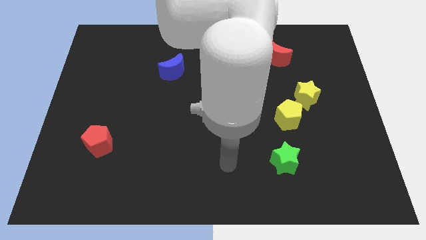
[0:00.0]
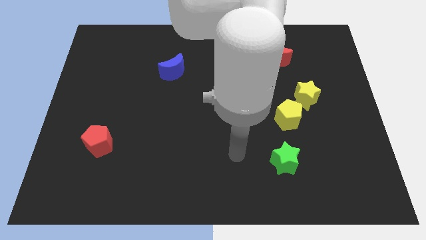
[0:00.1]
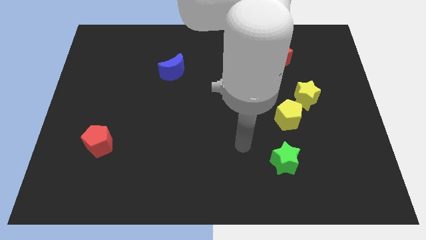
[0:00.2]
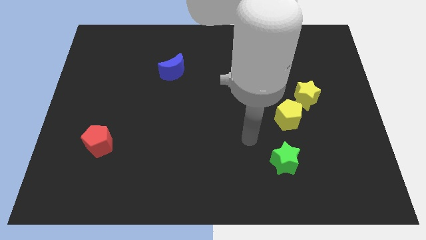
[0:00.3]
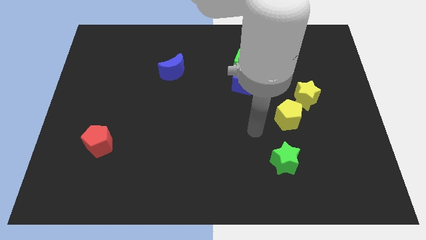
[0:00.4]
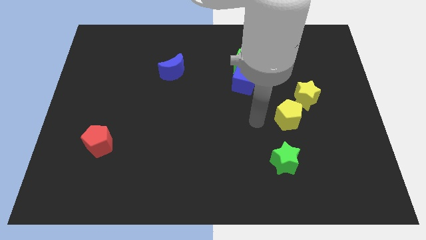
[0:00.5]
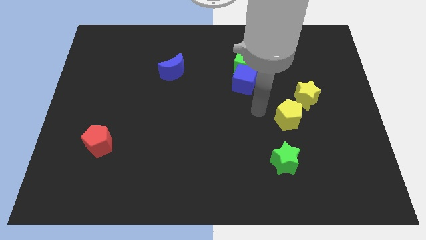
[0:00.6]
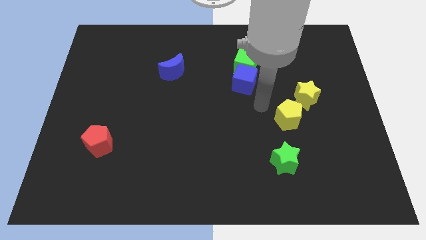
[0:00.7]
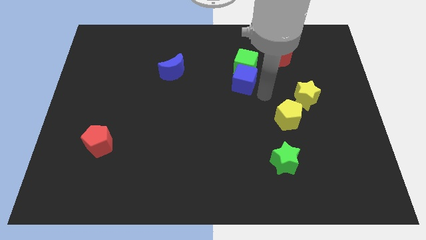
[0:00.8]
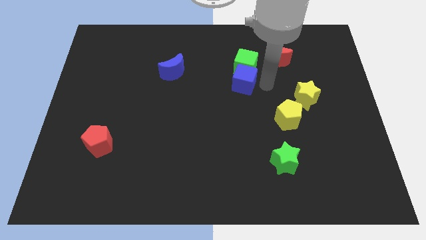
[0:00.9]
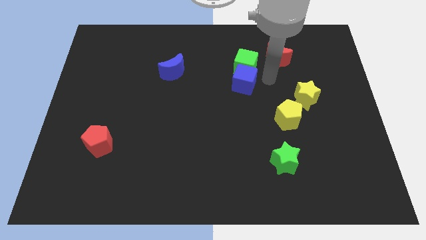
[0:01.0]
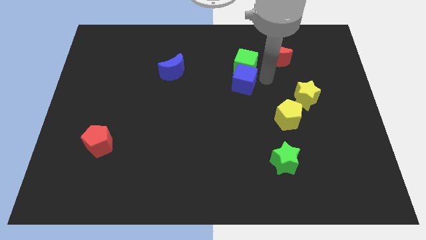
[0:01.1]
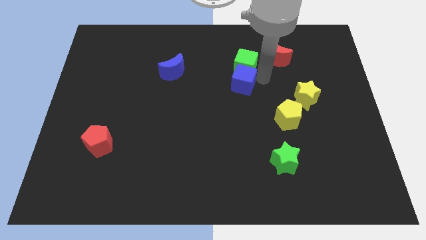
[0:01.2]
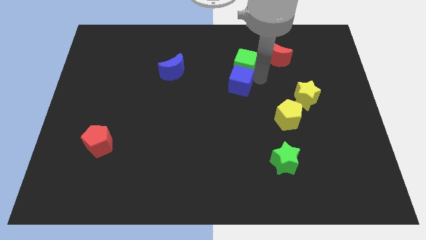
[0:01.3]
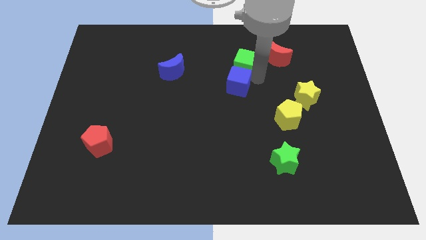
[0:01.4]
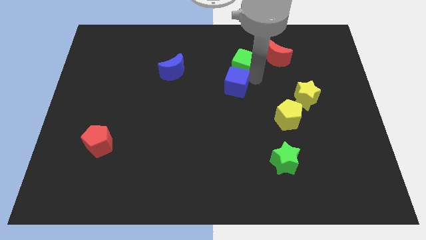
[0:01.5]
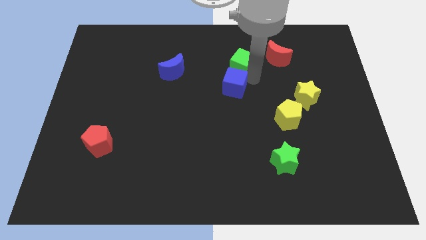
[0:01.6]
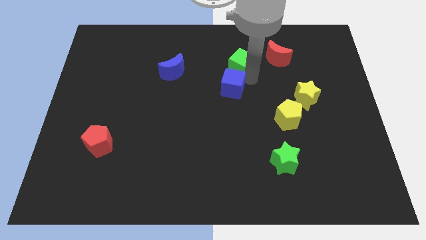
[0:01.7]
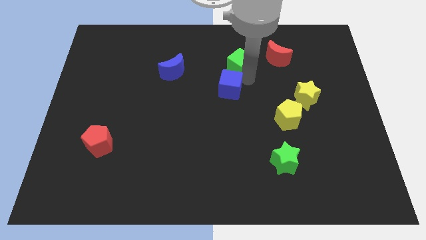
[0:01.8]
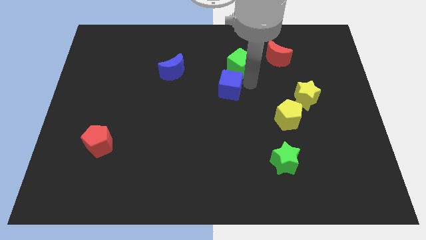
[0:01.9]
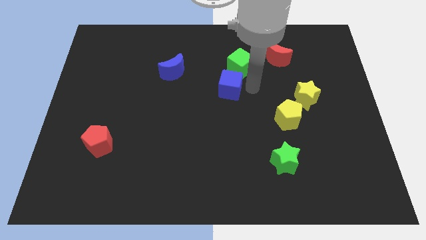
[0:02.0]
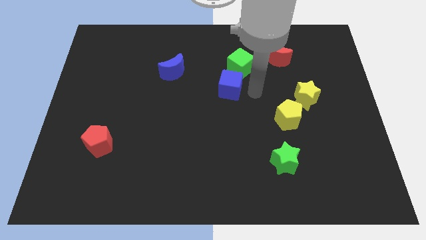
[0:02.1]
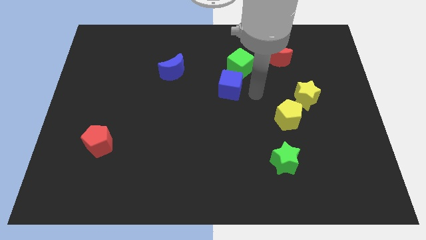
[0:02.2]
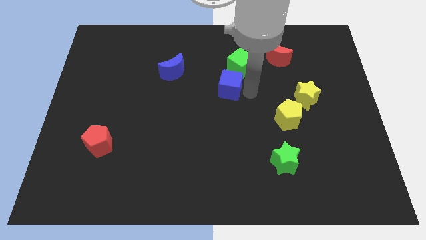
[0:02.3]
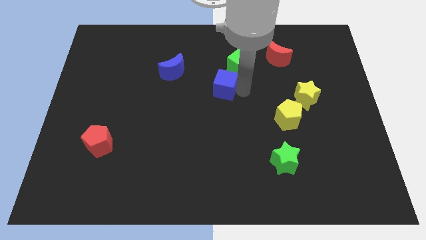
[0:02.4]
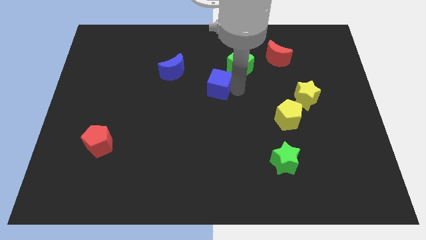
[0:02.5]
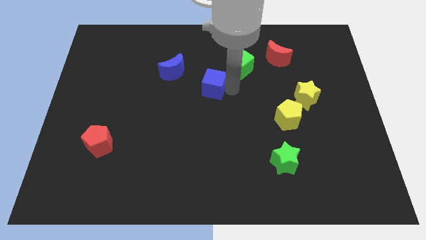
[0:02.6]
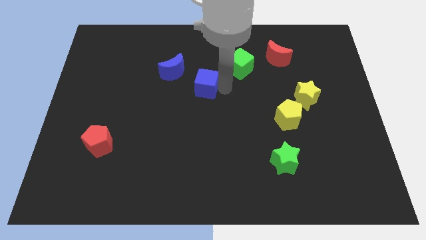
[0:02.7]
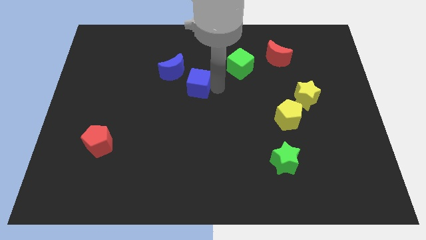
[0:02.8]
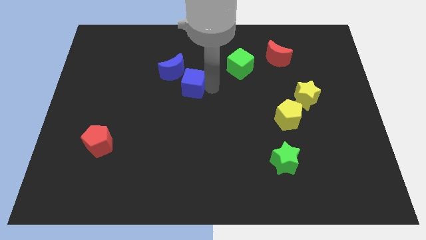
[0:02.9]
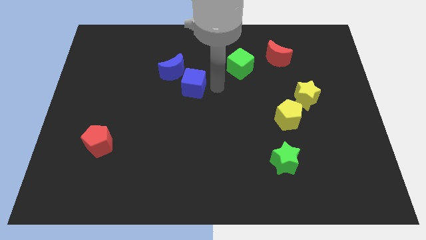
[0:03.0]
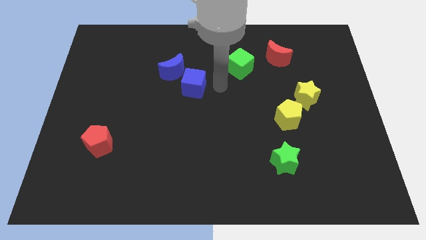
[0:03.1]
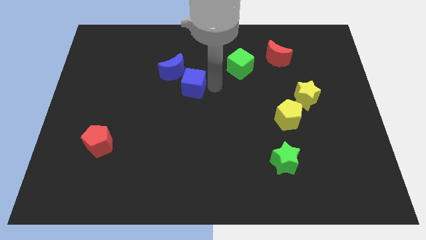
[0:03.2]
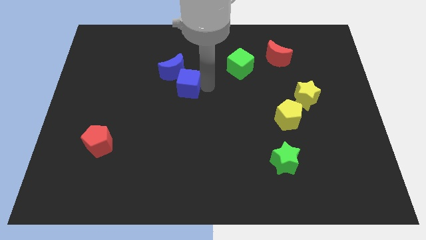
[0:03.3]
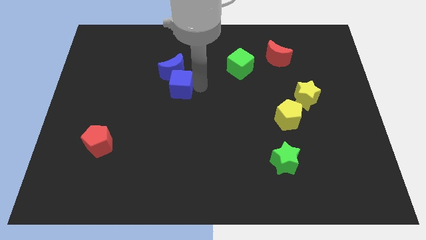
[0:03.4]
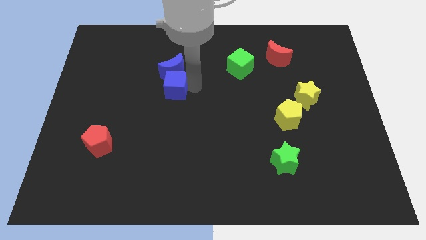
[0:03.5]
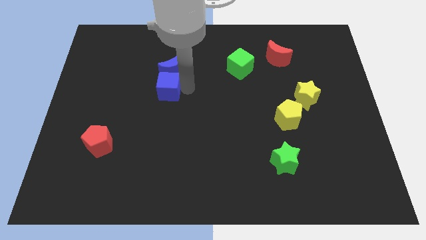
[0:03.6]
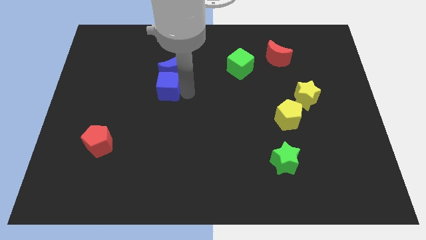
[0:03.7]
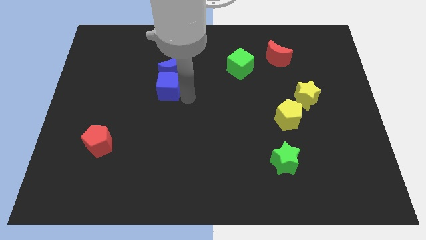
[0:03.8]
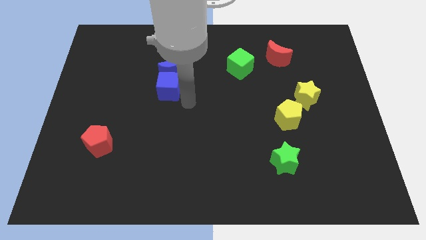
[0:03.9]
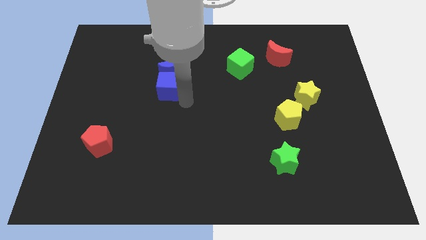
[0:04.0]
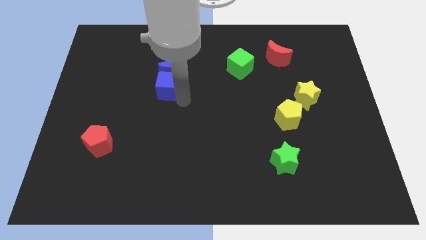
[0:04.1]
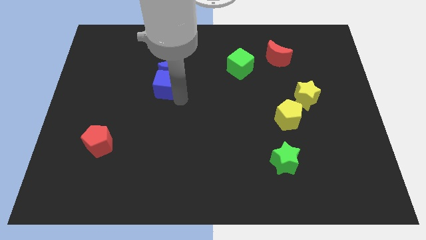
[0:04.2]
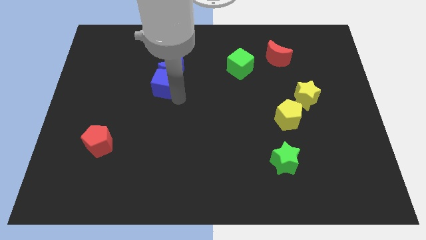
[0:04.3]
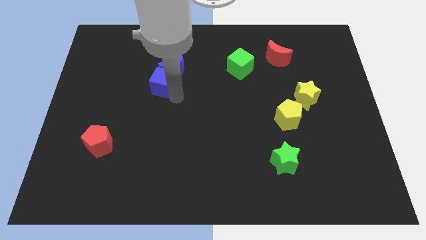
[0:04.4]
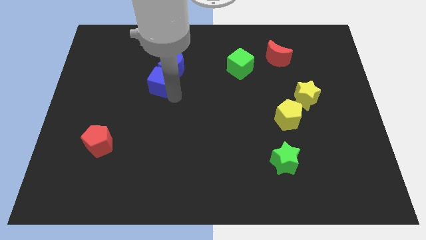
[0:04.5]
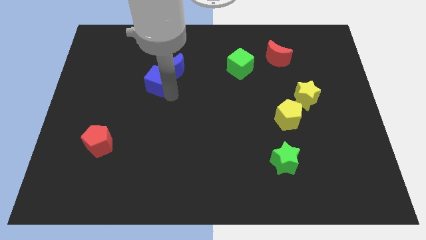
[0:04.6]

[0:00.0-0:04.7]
push the blue cube to the left of the blue moon

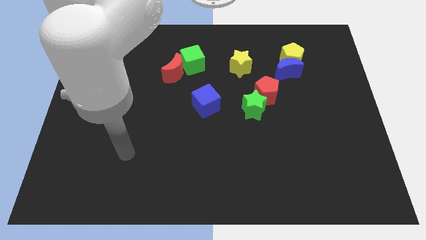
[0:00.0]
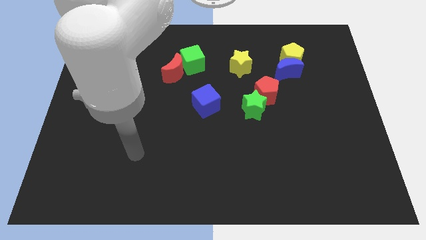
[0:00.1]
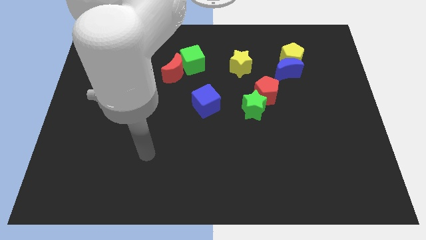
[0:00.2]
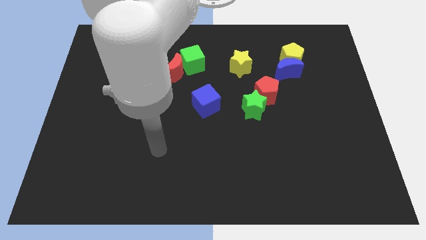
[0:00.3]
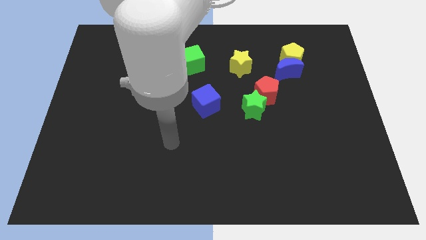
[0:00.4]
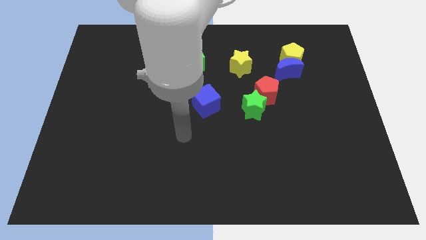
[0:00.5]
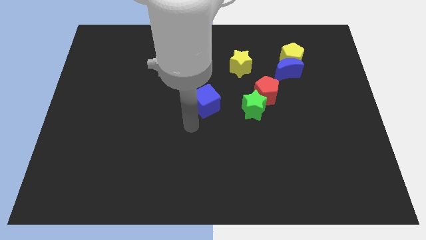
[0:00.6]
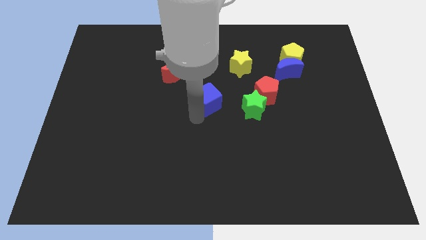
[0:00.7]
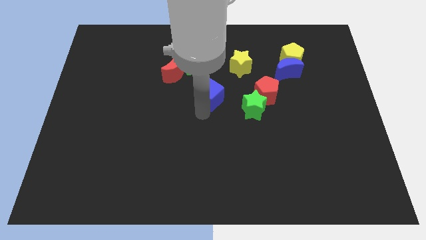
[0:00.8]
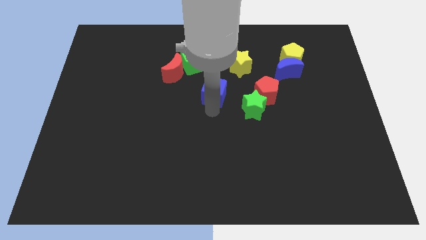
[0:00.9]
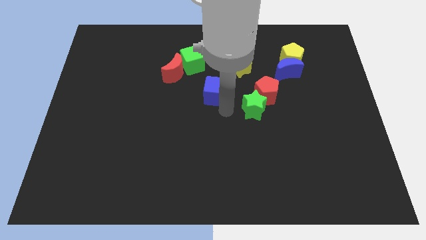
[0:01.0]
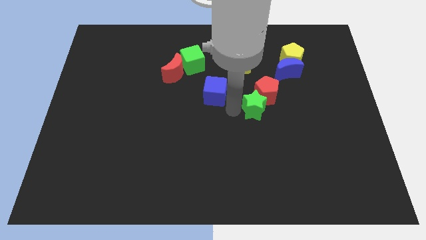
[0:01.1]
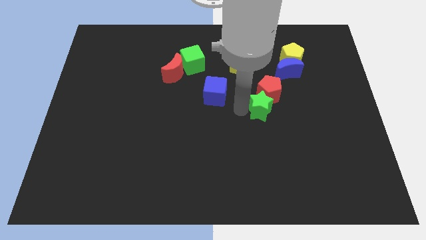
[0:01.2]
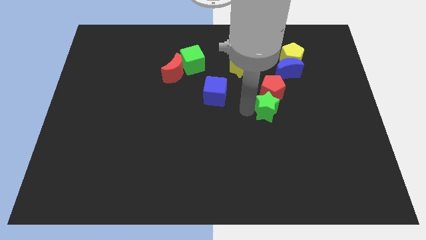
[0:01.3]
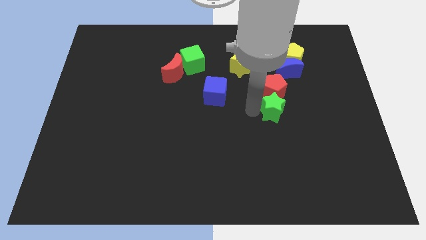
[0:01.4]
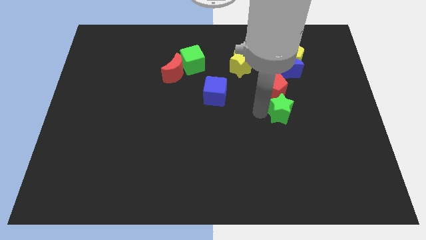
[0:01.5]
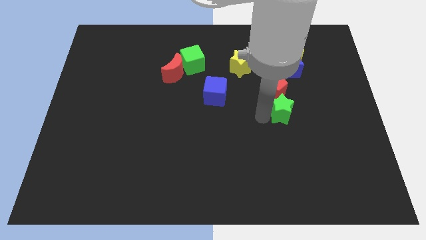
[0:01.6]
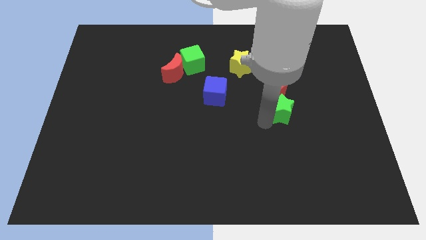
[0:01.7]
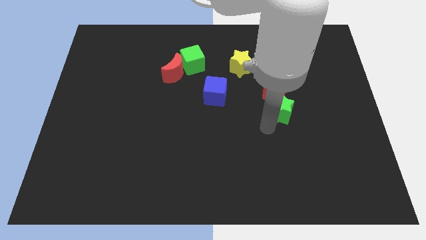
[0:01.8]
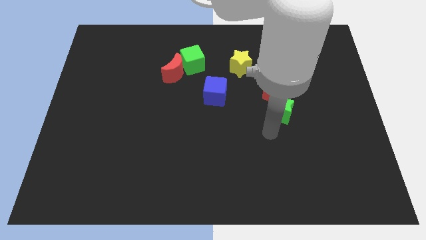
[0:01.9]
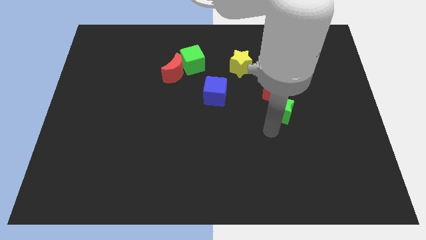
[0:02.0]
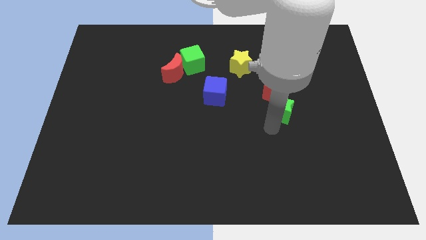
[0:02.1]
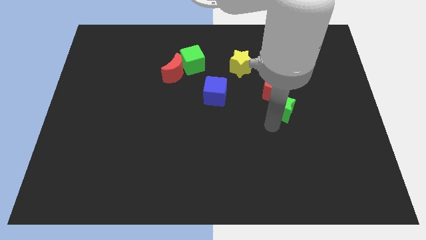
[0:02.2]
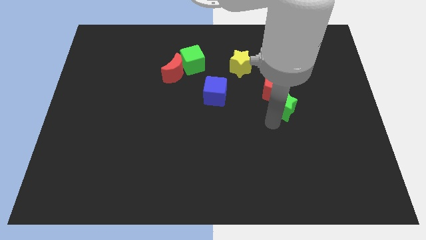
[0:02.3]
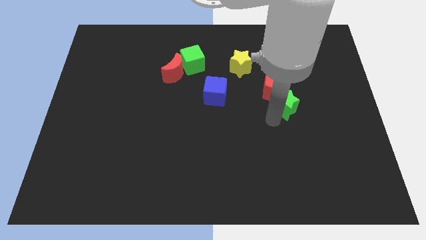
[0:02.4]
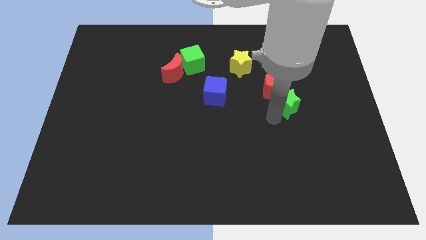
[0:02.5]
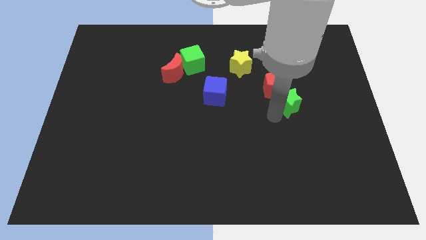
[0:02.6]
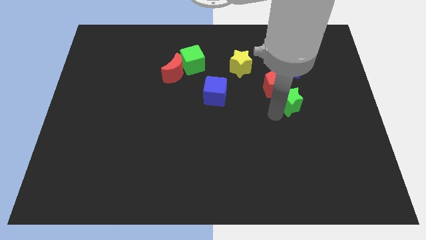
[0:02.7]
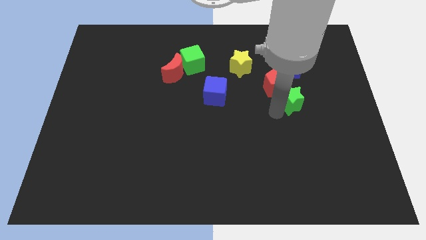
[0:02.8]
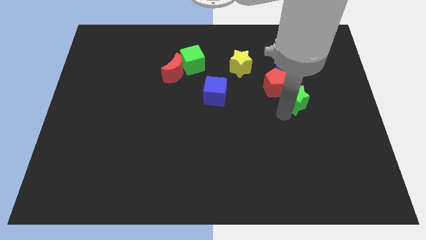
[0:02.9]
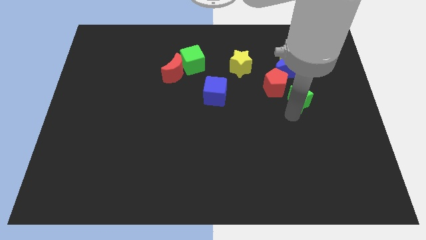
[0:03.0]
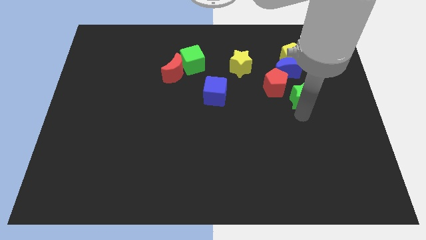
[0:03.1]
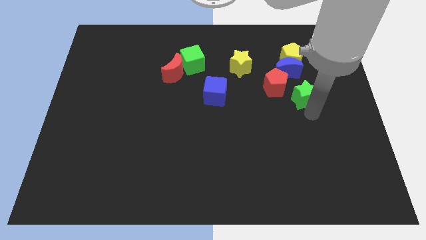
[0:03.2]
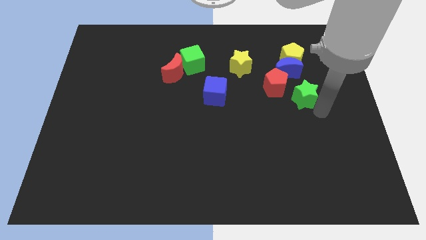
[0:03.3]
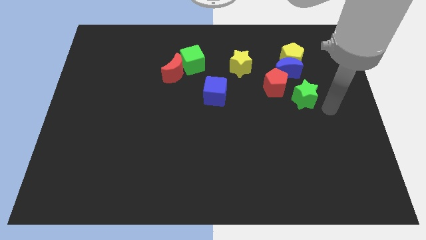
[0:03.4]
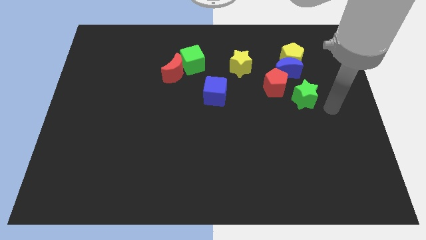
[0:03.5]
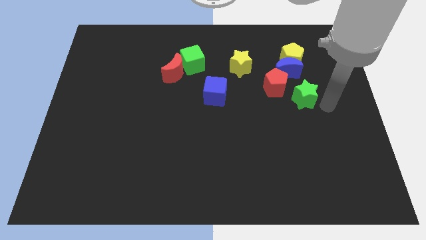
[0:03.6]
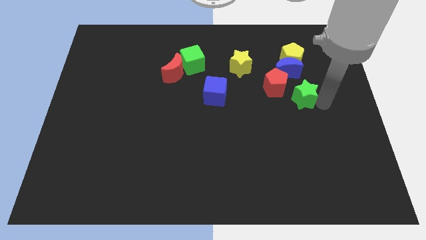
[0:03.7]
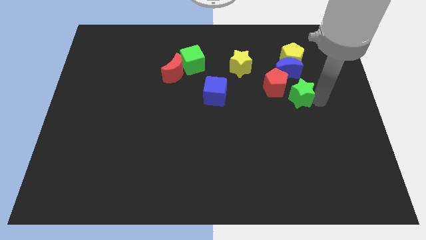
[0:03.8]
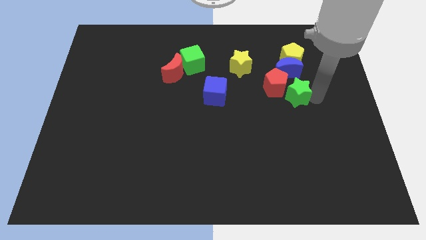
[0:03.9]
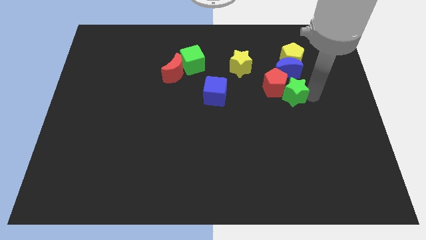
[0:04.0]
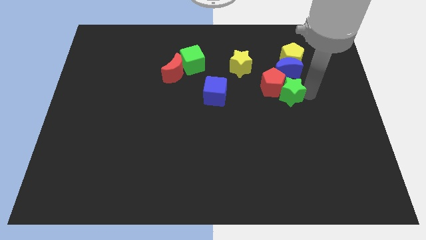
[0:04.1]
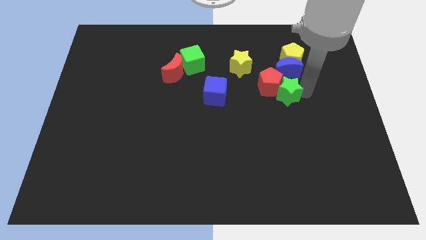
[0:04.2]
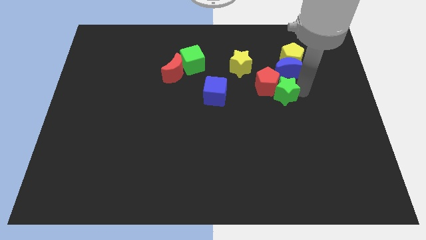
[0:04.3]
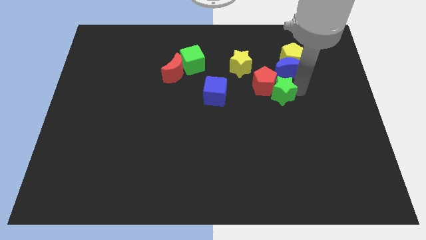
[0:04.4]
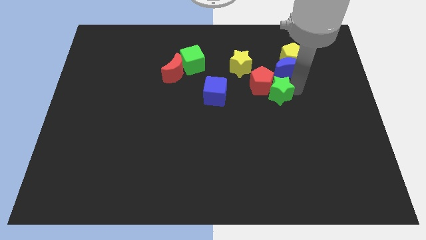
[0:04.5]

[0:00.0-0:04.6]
push the green star diagonally down and to the right of the yellow star
